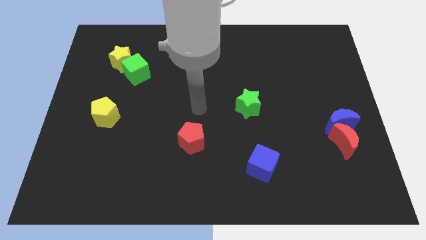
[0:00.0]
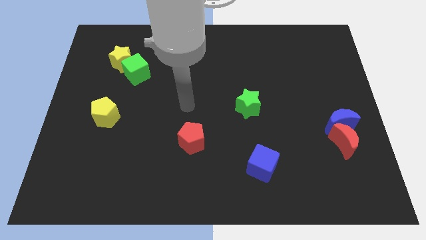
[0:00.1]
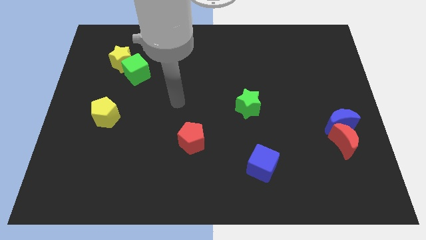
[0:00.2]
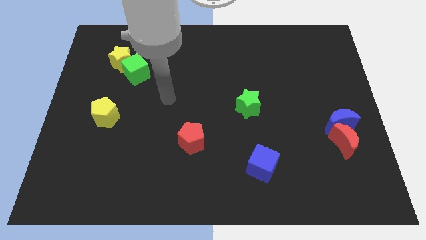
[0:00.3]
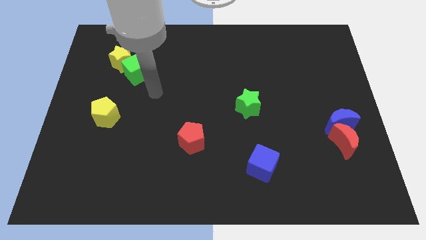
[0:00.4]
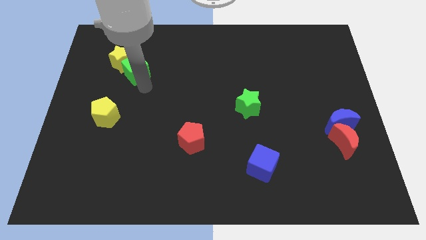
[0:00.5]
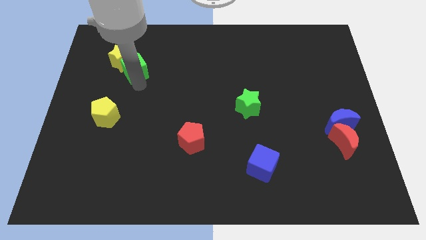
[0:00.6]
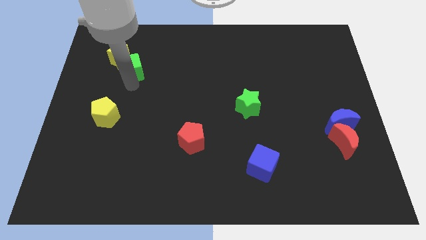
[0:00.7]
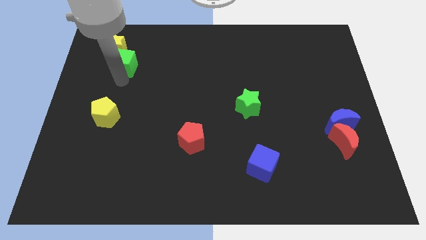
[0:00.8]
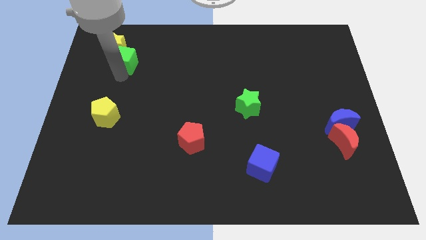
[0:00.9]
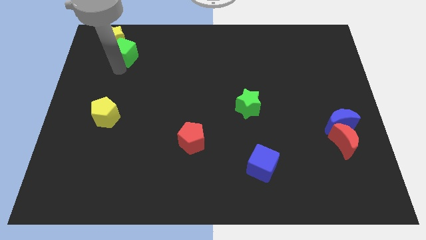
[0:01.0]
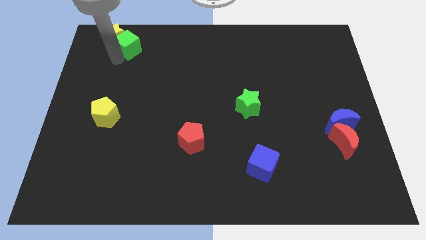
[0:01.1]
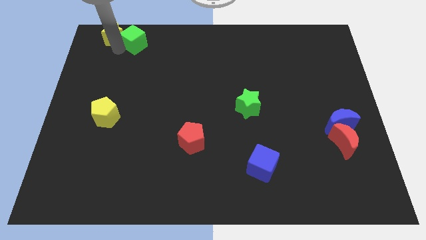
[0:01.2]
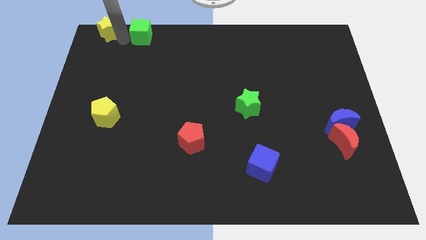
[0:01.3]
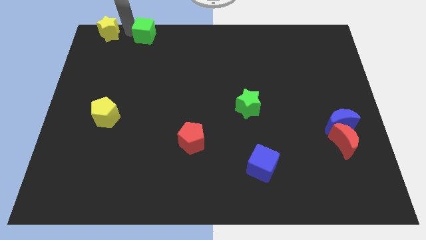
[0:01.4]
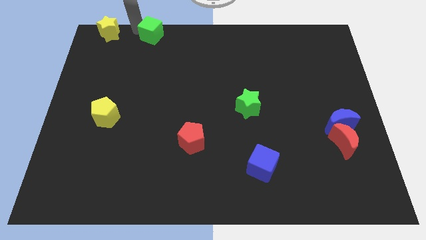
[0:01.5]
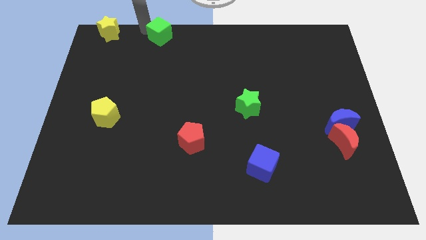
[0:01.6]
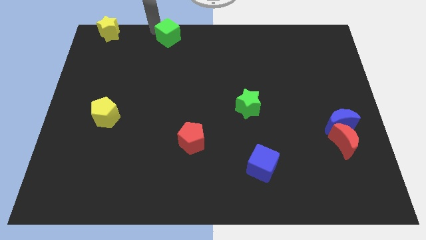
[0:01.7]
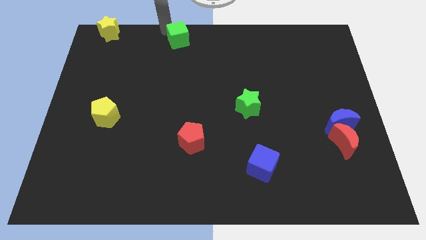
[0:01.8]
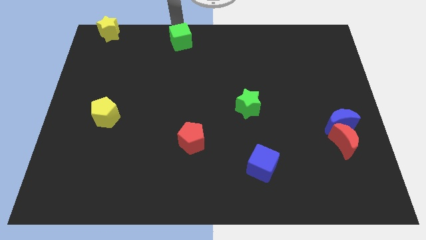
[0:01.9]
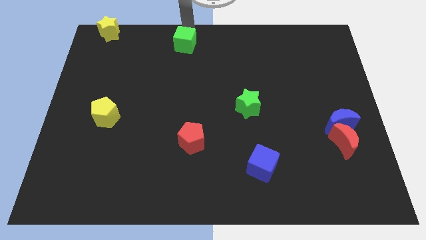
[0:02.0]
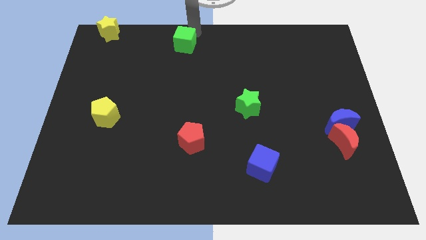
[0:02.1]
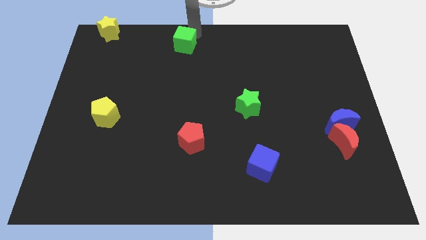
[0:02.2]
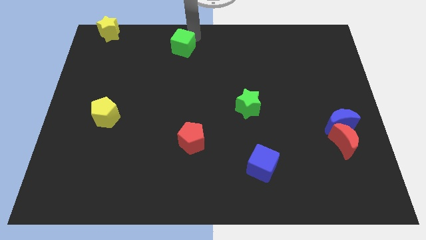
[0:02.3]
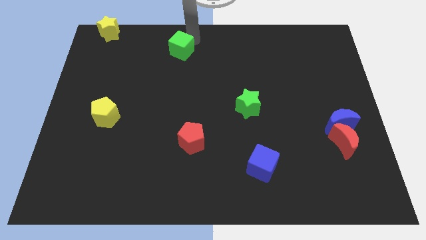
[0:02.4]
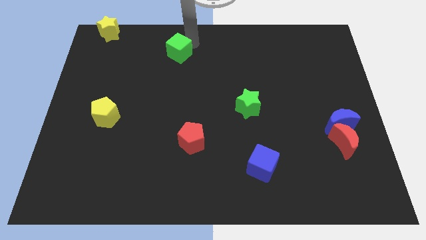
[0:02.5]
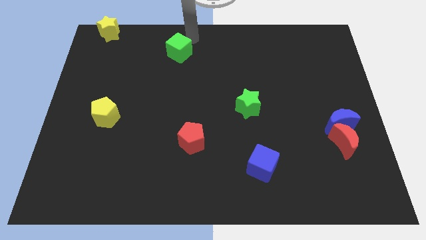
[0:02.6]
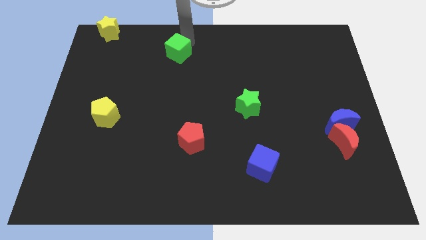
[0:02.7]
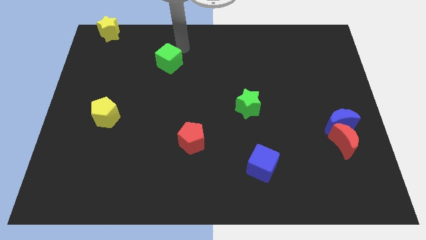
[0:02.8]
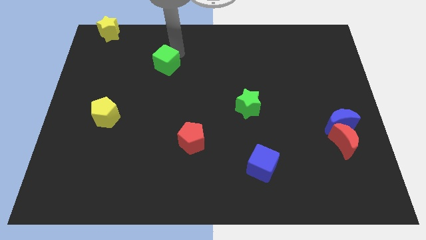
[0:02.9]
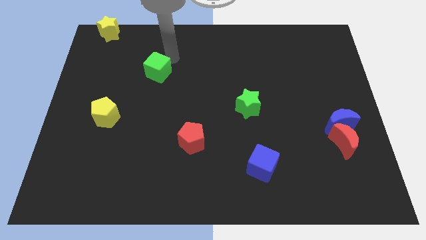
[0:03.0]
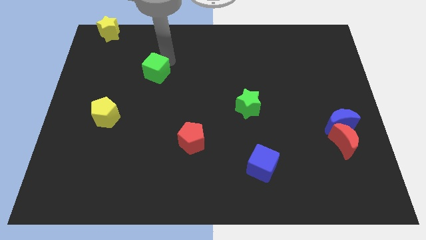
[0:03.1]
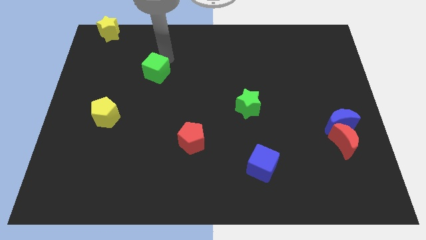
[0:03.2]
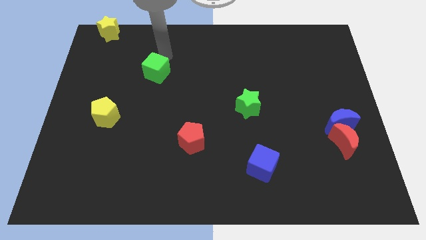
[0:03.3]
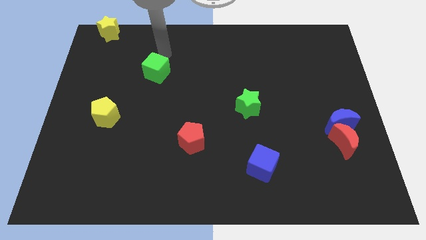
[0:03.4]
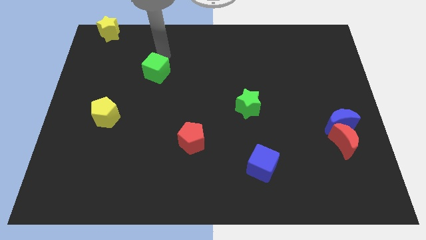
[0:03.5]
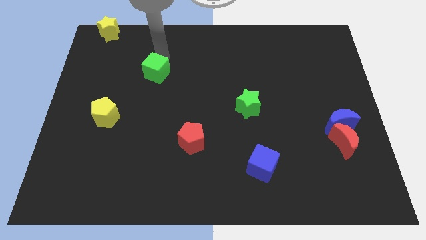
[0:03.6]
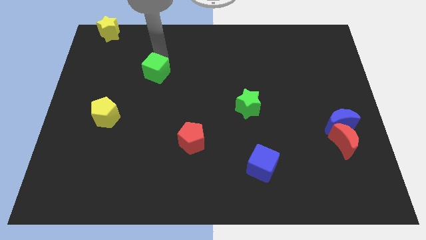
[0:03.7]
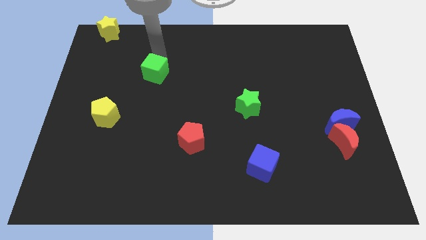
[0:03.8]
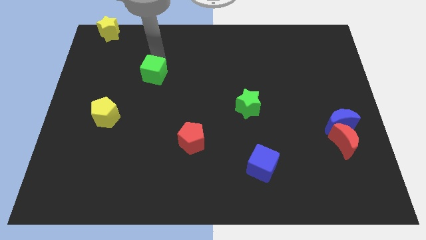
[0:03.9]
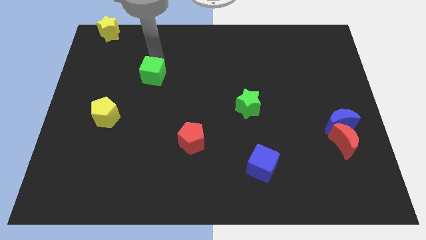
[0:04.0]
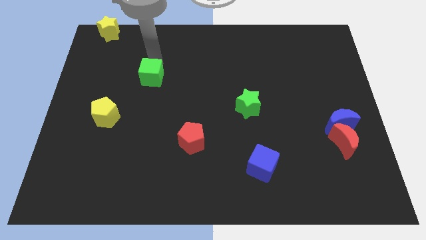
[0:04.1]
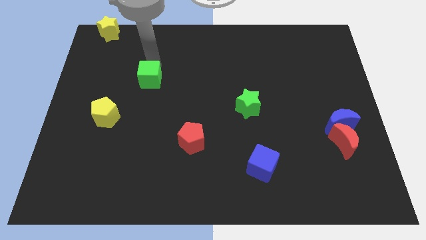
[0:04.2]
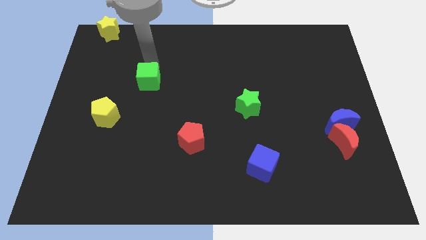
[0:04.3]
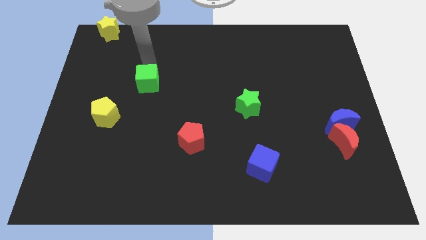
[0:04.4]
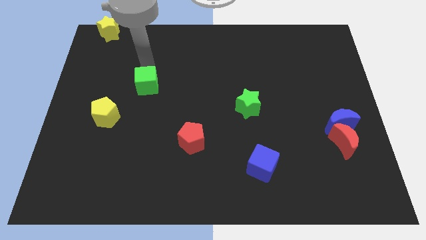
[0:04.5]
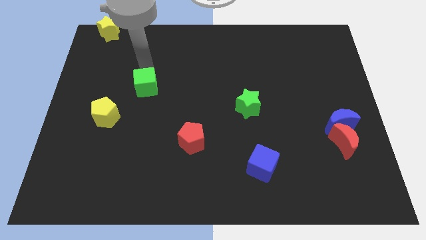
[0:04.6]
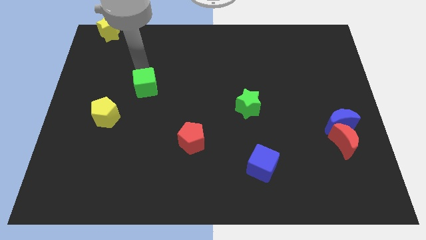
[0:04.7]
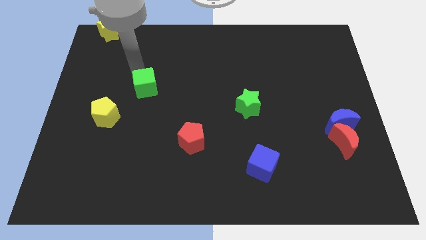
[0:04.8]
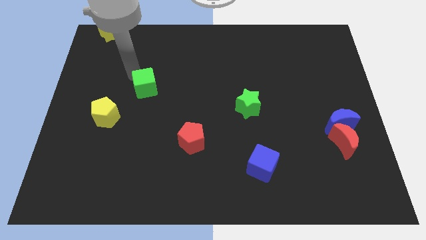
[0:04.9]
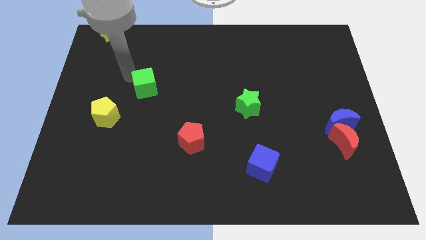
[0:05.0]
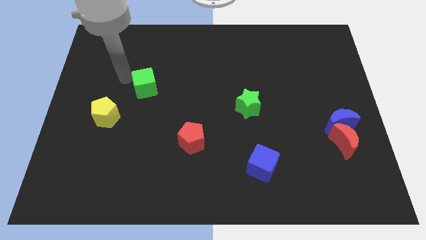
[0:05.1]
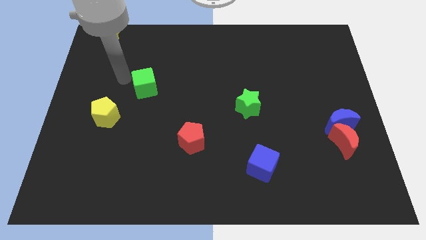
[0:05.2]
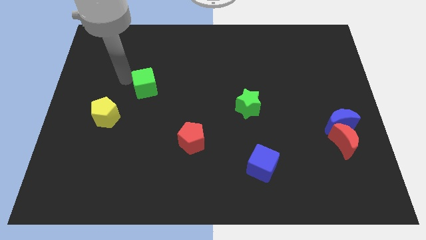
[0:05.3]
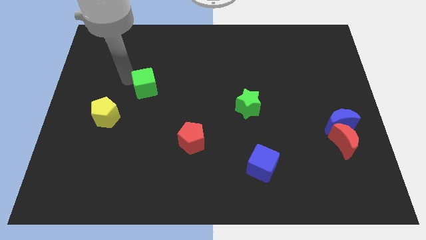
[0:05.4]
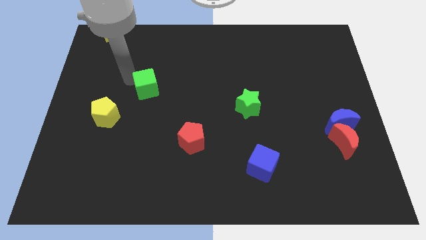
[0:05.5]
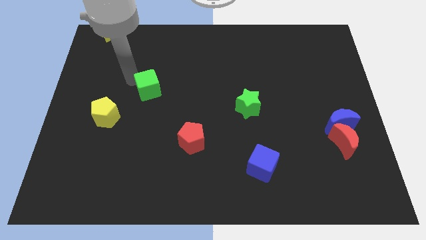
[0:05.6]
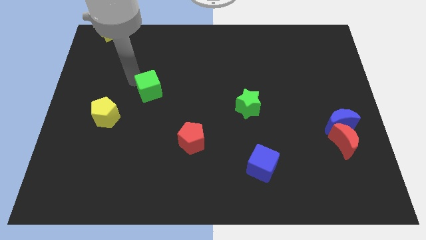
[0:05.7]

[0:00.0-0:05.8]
slightly move the green cube downwards and right

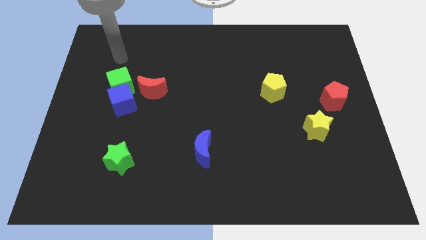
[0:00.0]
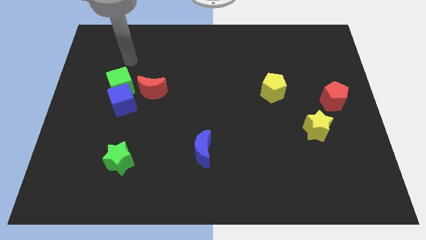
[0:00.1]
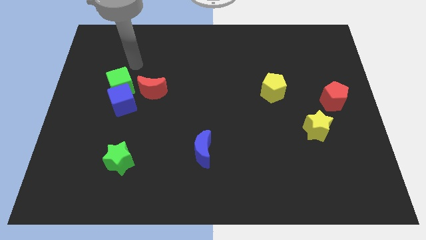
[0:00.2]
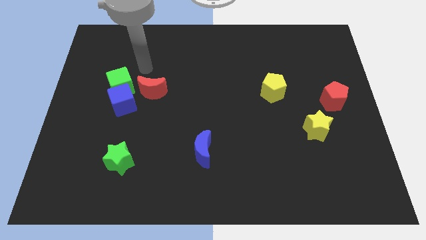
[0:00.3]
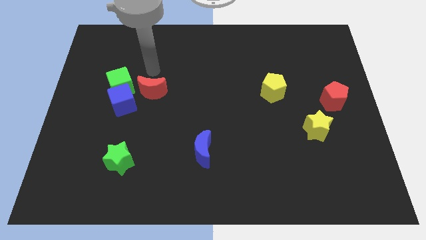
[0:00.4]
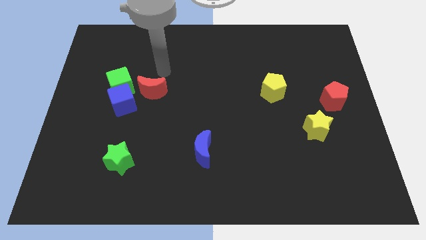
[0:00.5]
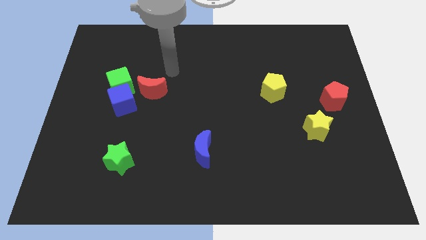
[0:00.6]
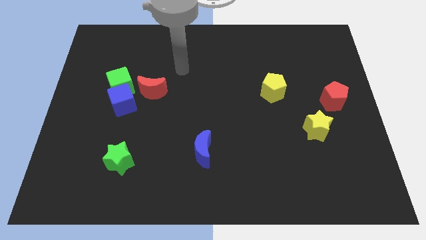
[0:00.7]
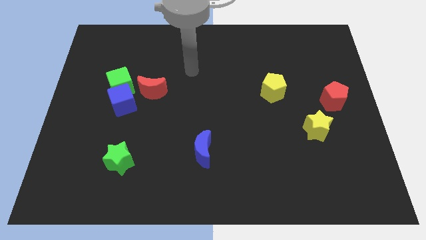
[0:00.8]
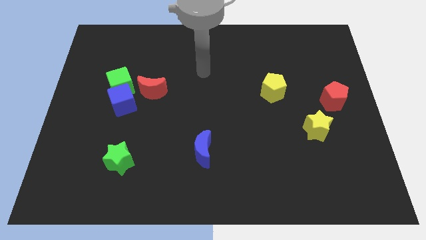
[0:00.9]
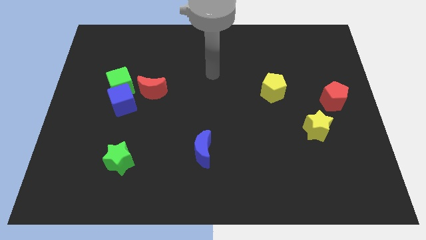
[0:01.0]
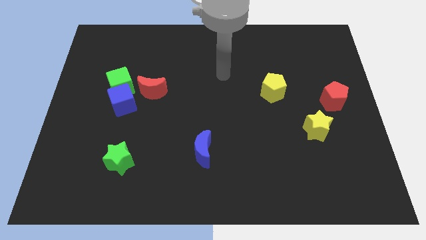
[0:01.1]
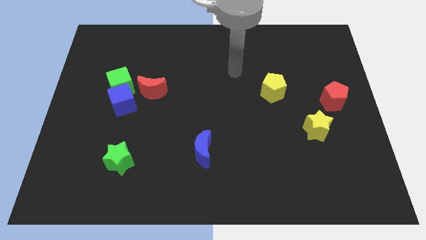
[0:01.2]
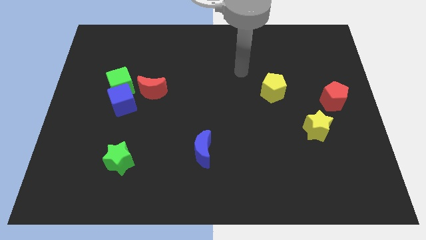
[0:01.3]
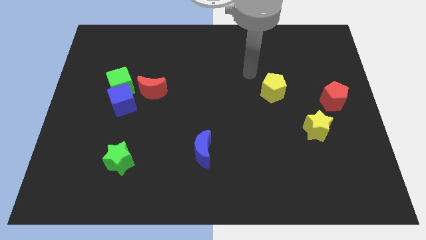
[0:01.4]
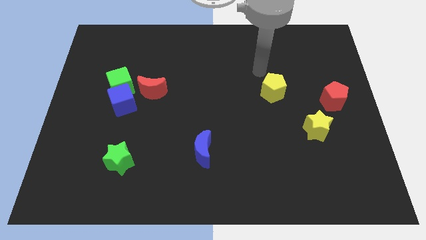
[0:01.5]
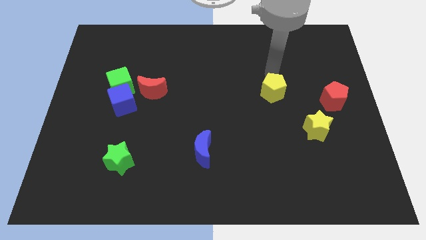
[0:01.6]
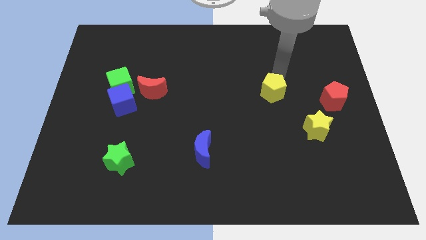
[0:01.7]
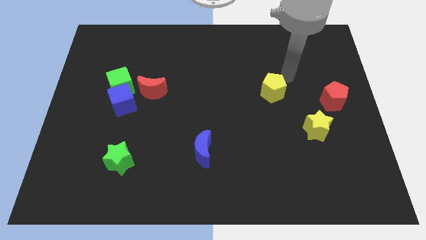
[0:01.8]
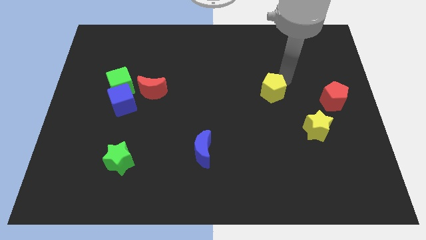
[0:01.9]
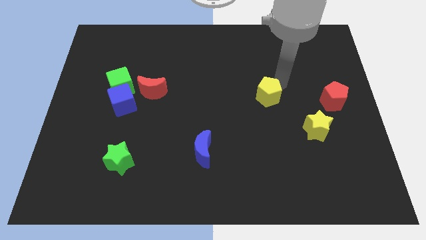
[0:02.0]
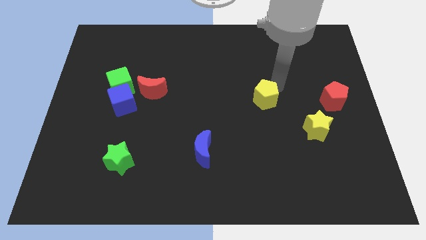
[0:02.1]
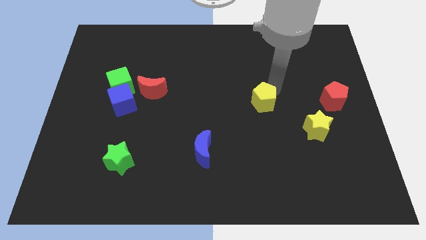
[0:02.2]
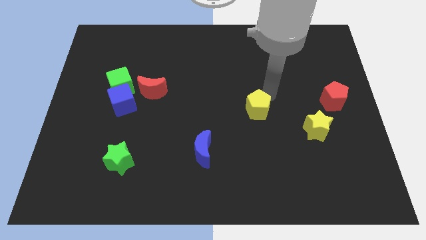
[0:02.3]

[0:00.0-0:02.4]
move the yellow pentagon a bit downwards and to the left diagonally

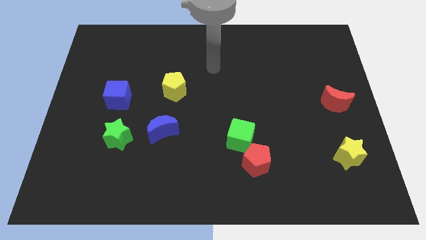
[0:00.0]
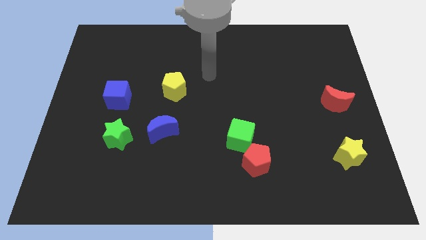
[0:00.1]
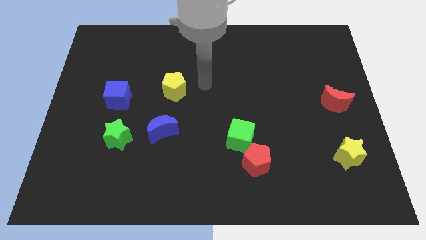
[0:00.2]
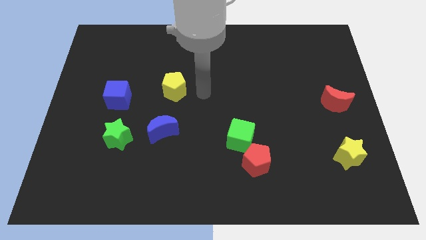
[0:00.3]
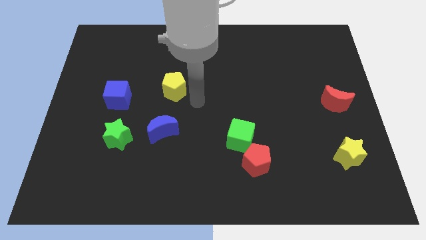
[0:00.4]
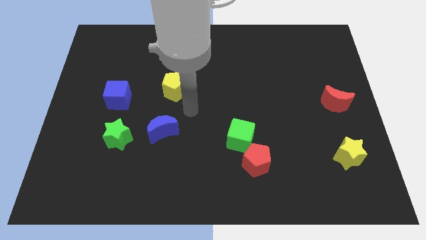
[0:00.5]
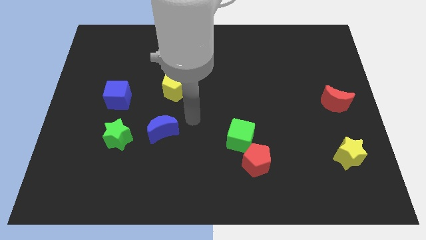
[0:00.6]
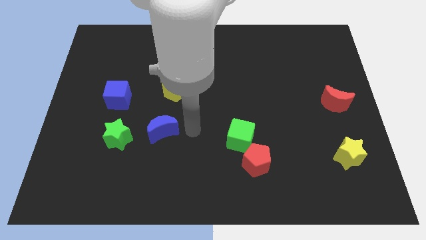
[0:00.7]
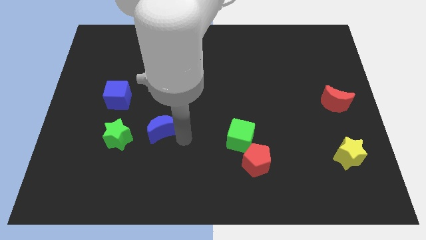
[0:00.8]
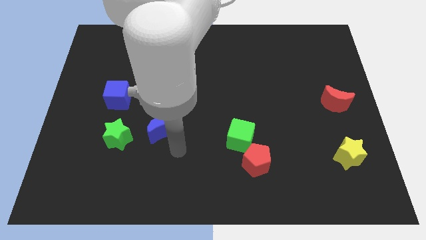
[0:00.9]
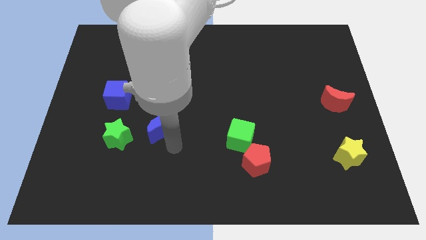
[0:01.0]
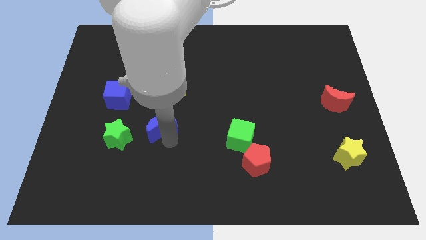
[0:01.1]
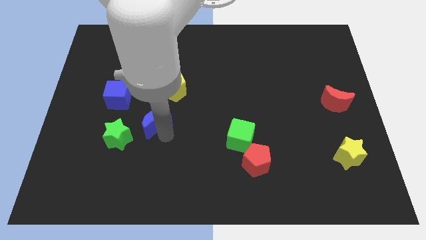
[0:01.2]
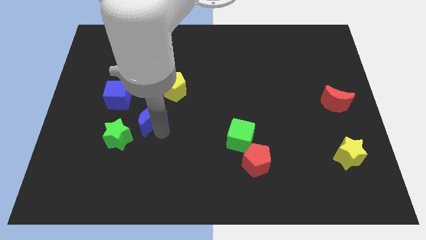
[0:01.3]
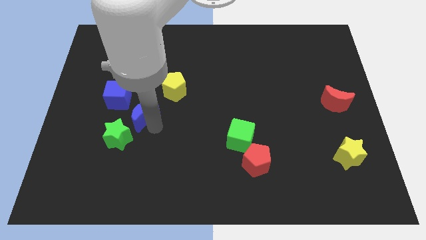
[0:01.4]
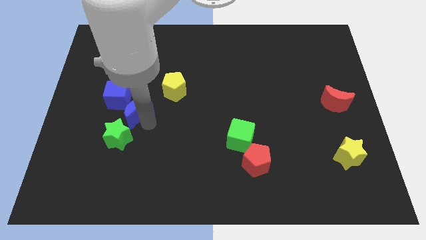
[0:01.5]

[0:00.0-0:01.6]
push the blue moon a little diagonally upwards and to the left
